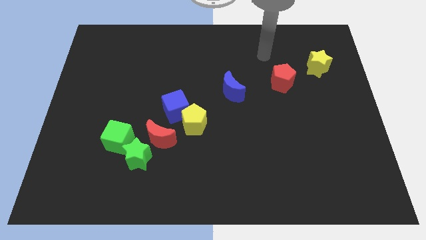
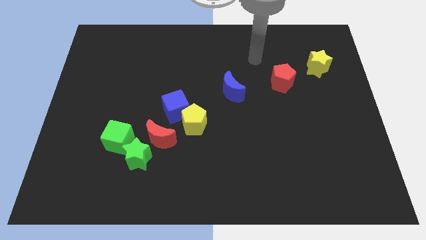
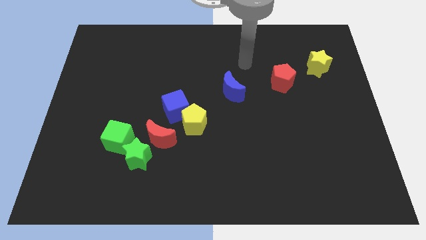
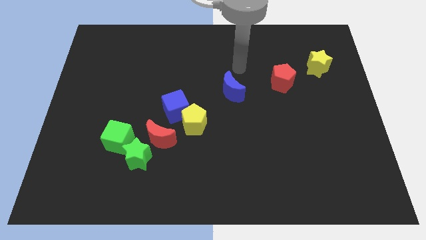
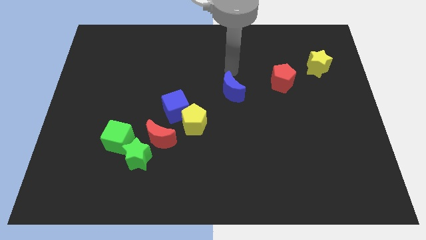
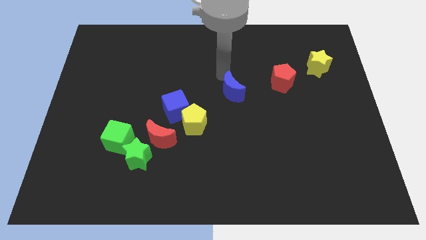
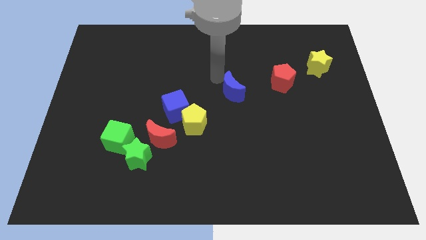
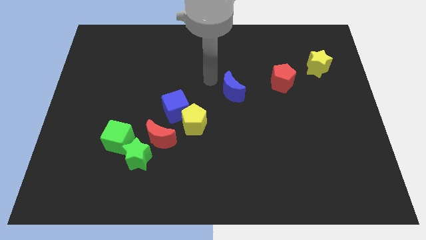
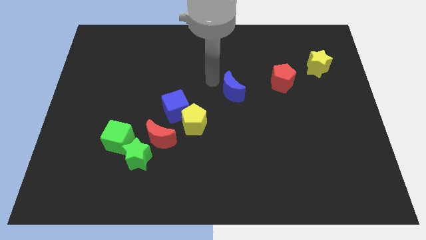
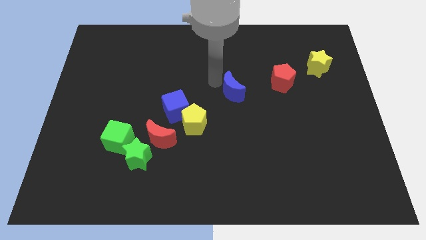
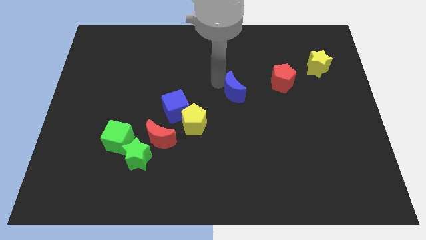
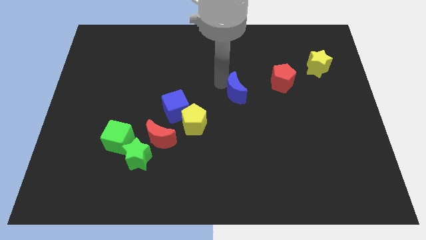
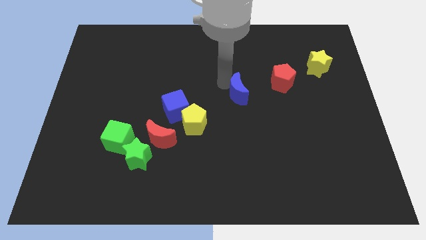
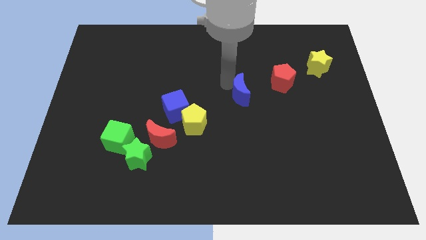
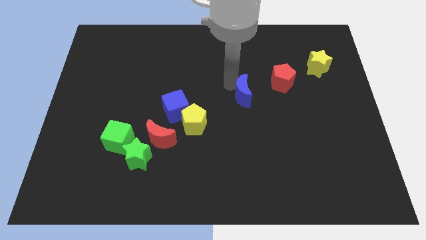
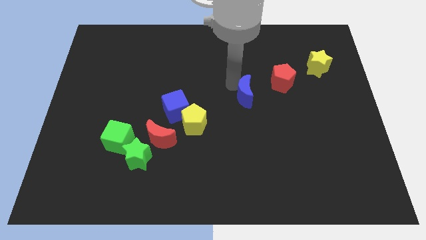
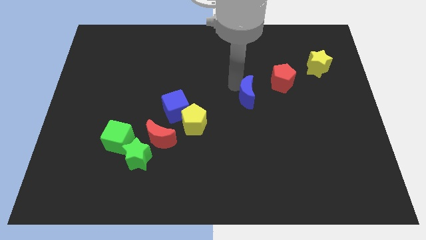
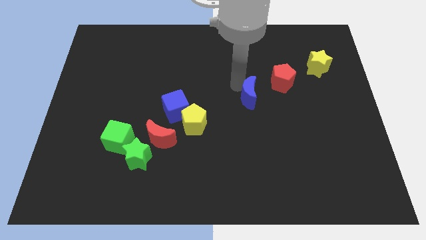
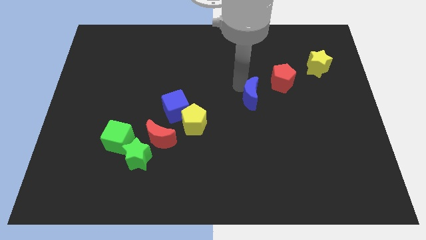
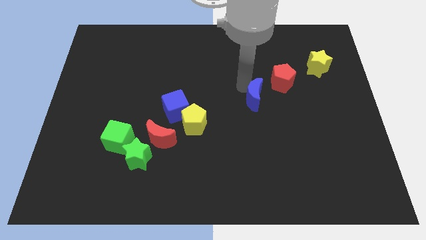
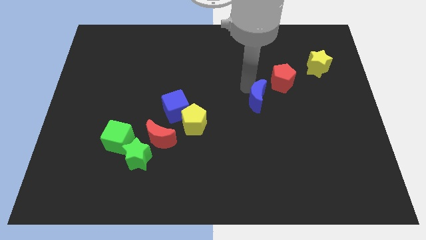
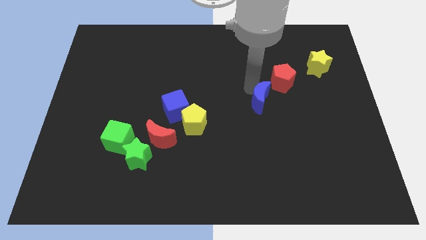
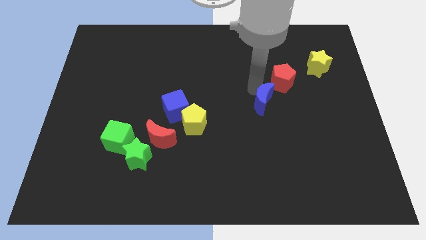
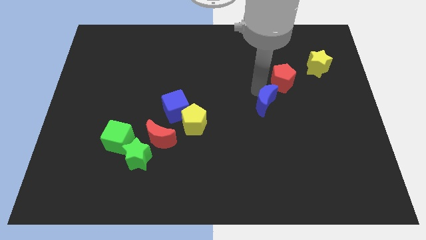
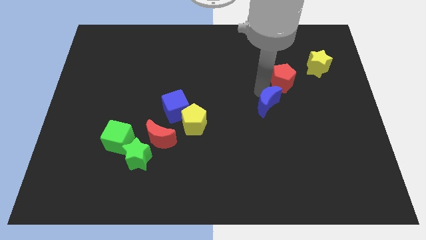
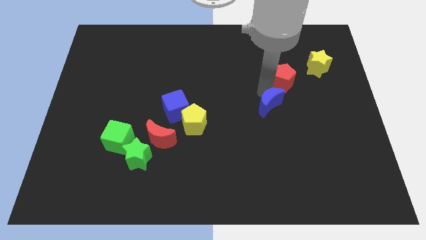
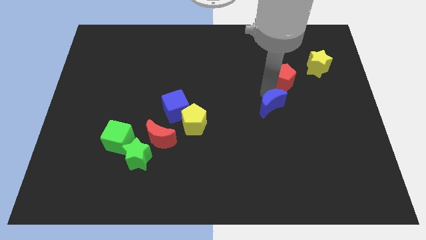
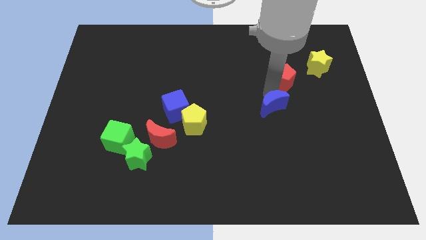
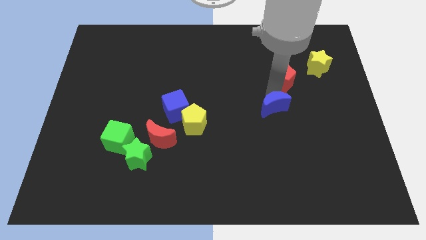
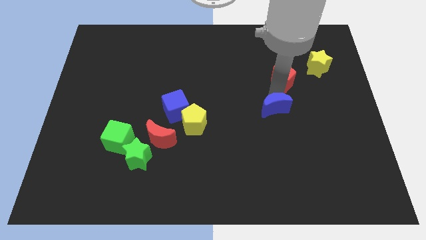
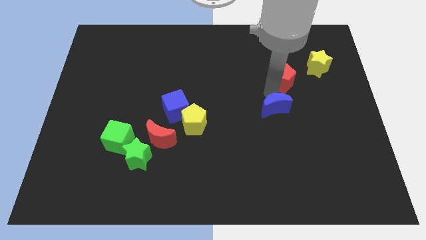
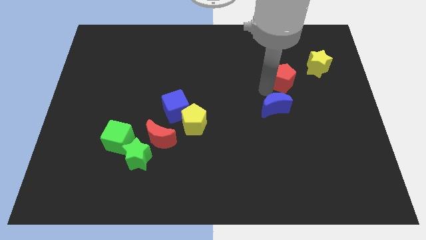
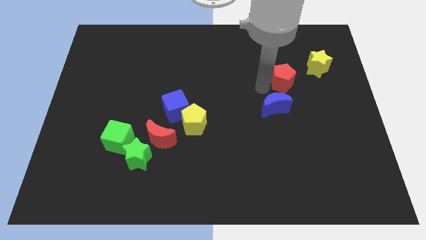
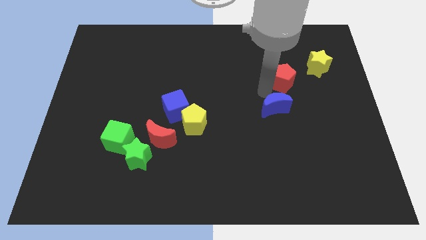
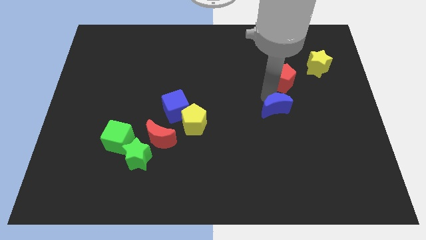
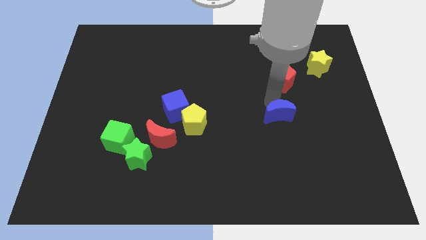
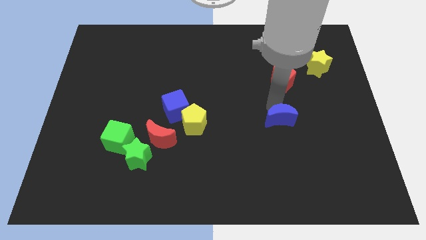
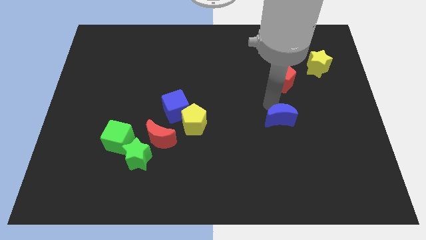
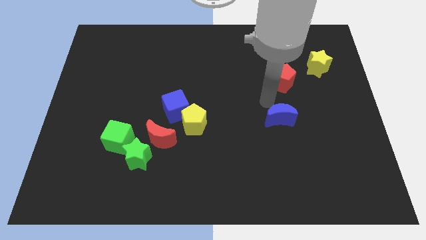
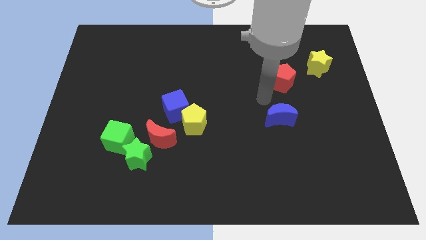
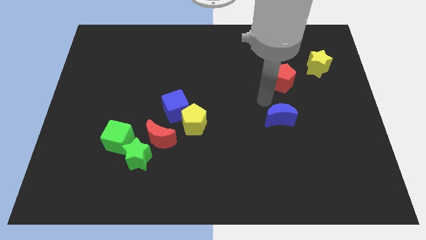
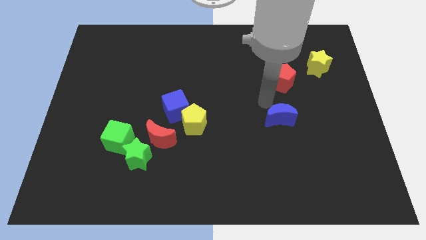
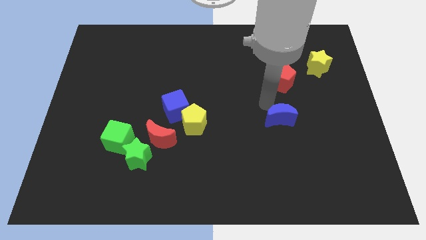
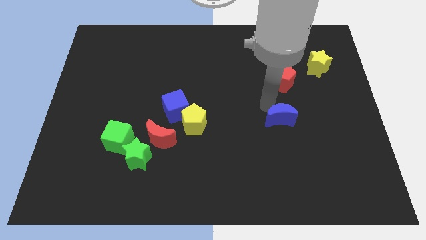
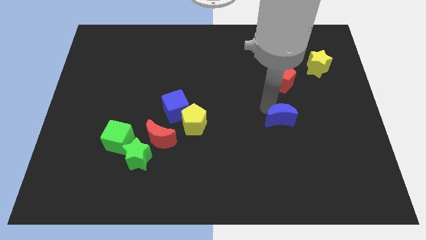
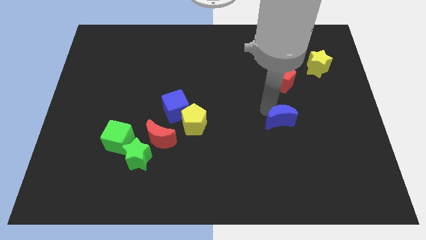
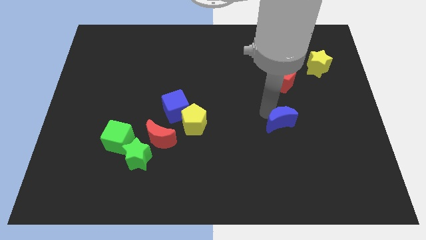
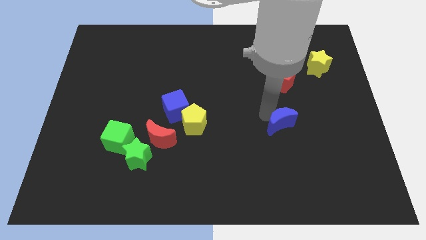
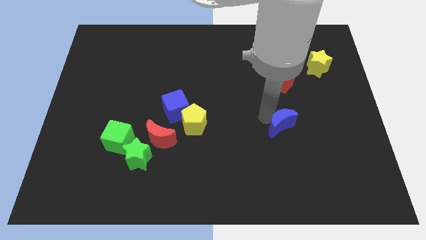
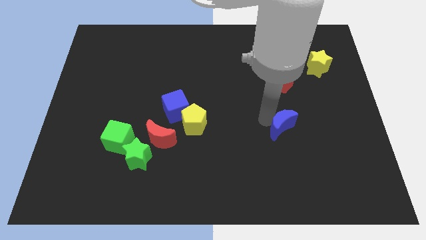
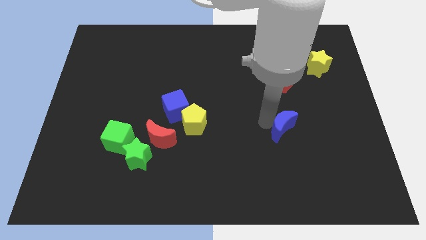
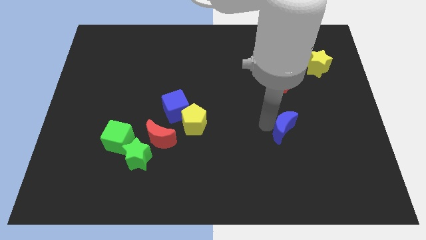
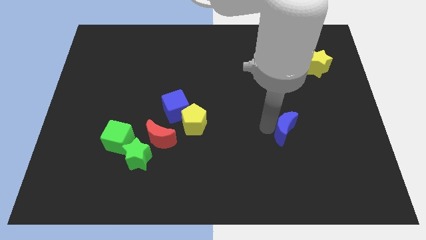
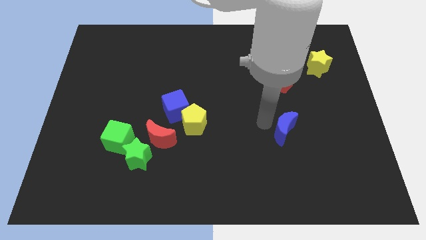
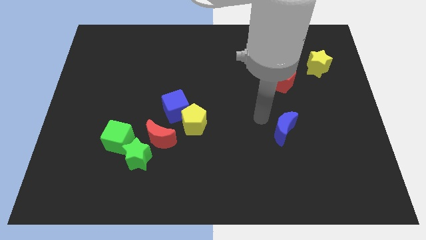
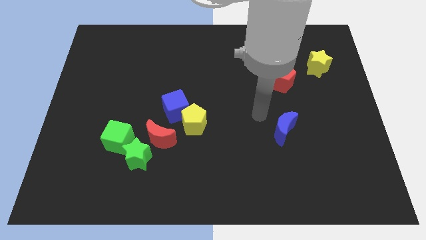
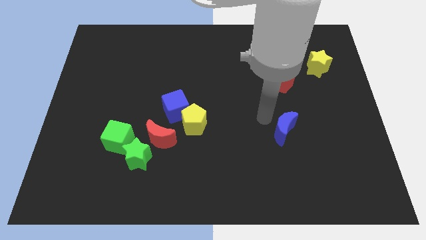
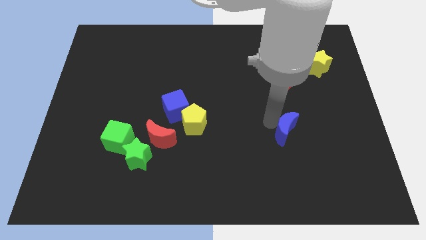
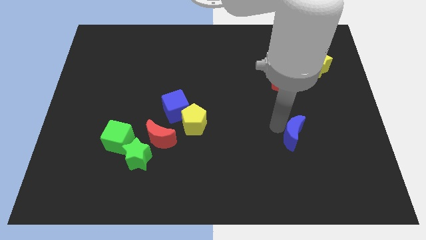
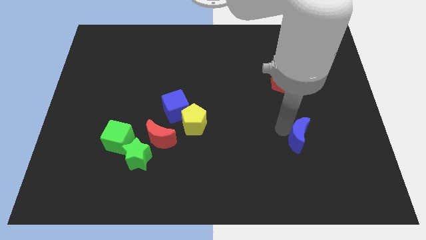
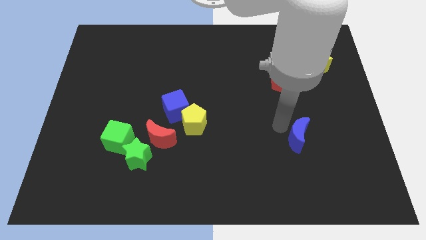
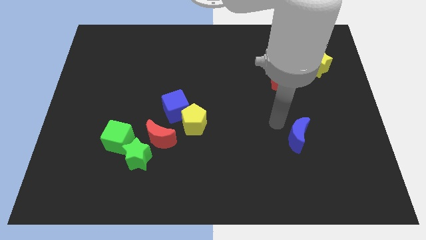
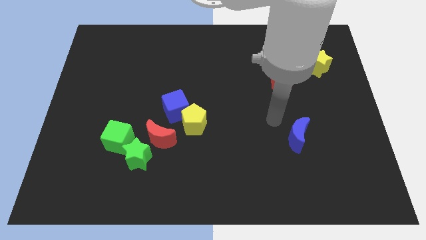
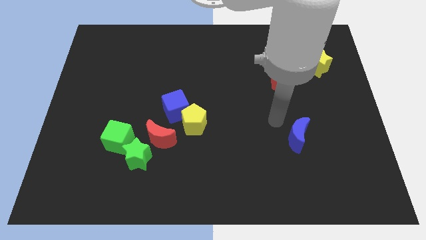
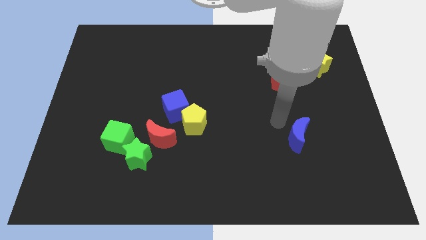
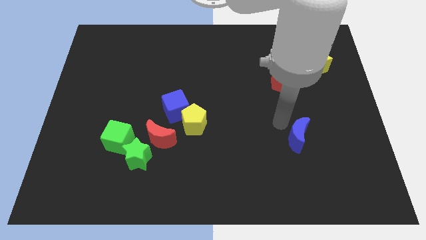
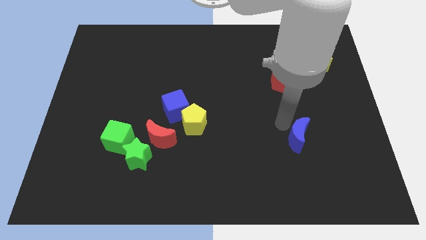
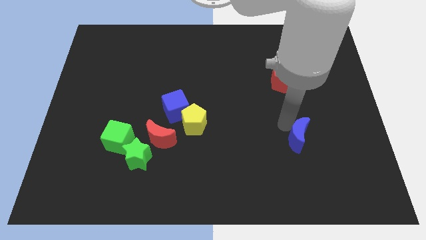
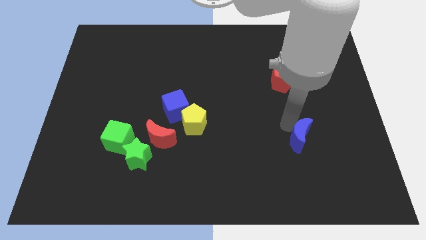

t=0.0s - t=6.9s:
slide the blue moon diagonally downwards and right

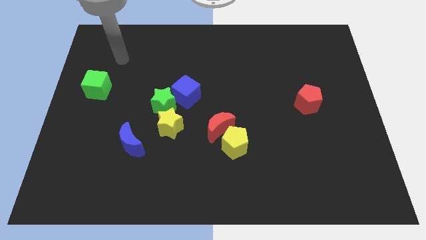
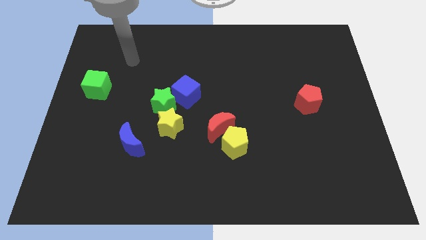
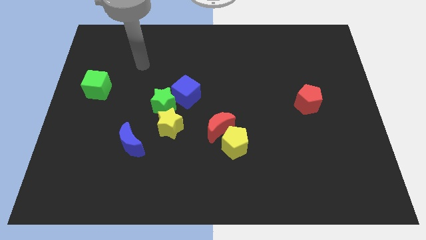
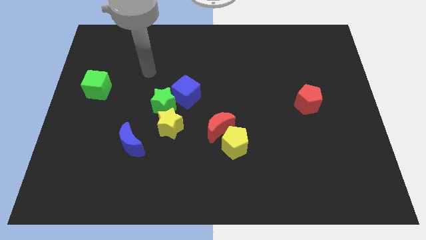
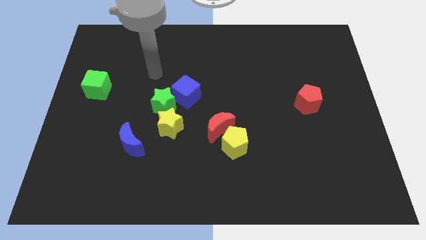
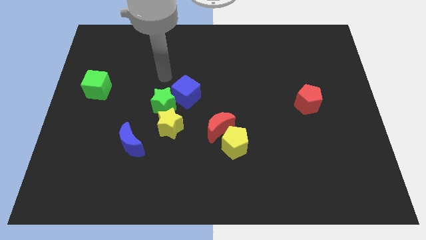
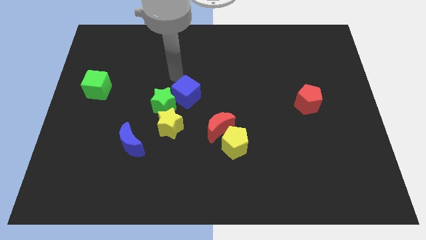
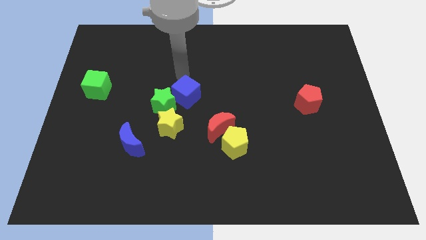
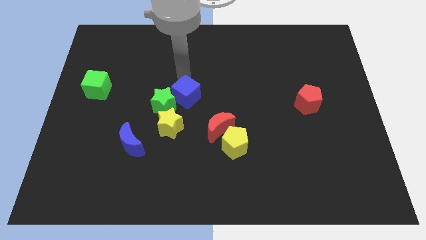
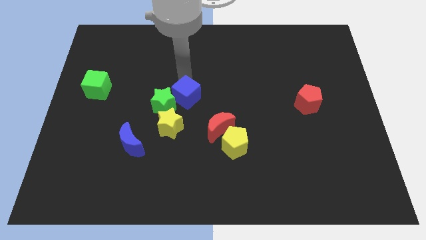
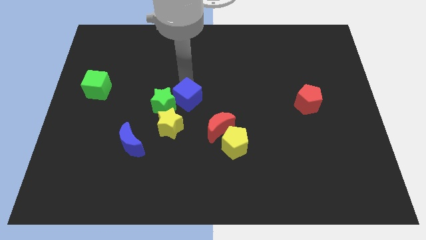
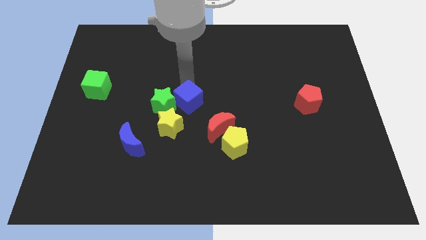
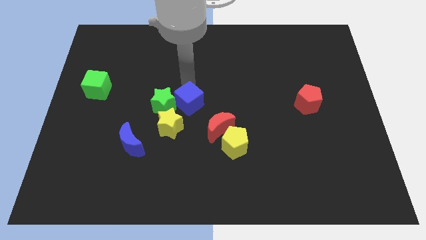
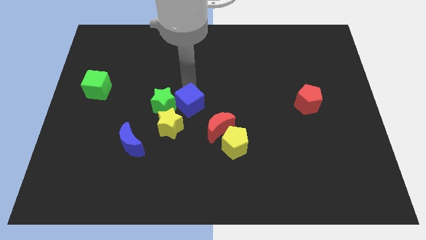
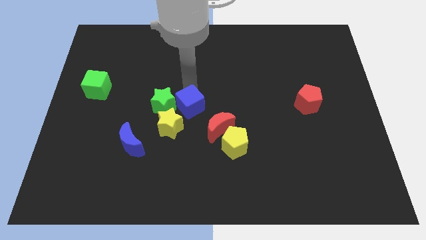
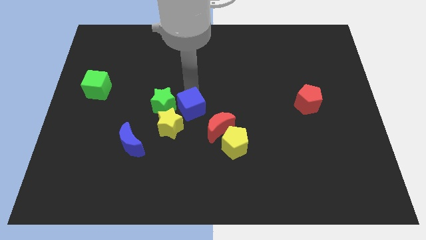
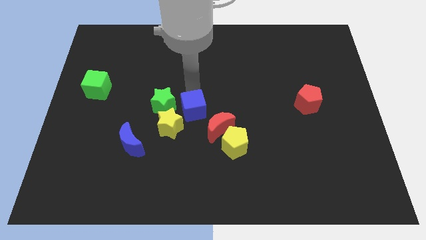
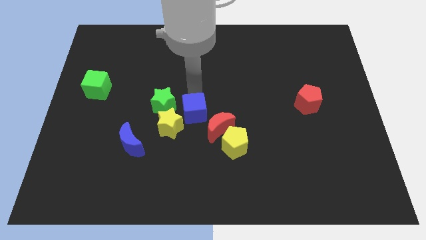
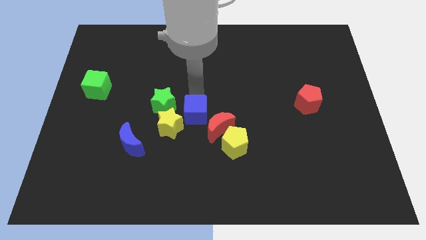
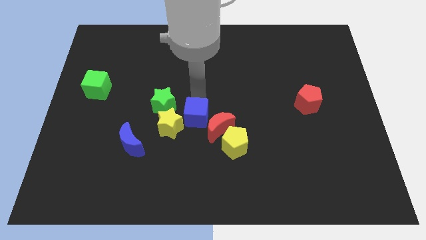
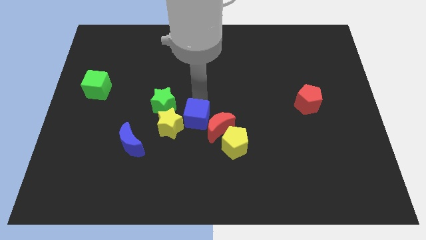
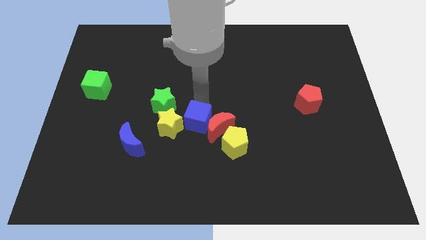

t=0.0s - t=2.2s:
slide the blue cube a little bit down
